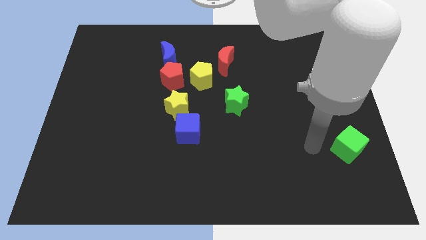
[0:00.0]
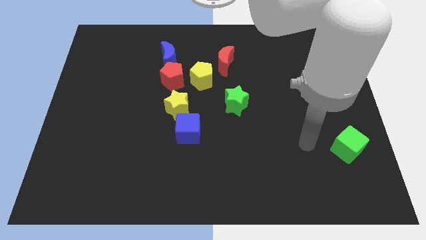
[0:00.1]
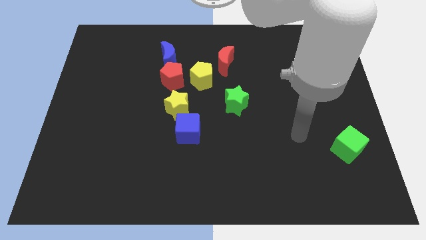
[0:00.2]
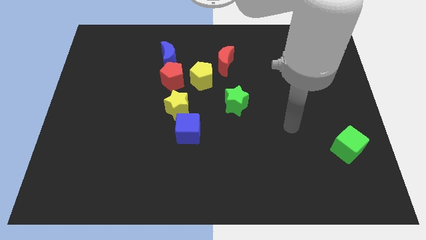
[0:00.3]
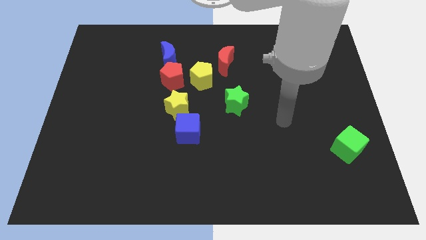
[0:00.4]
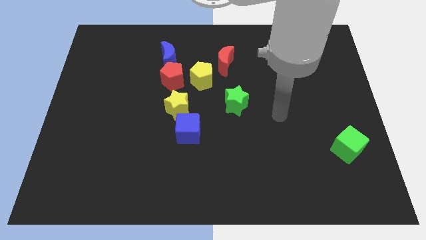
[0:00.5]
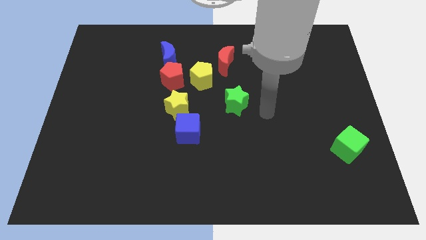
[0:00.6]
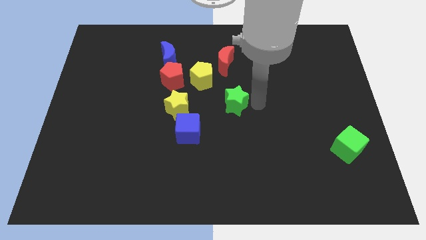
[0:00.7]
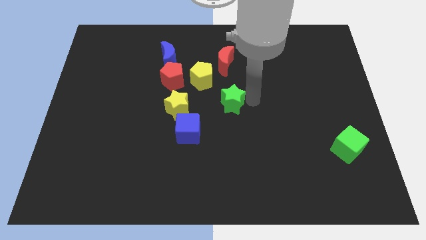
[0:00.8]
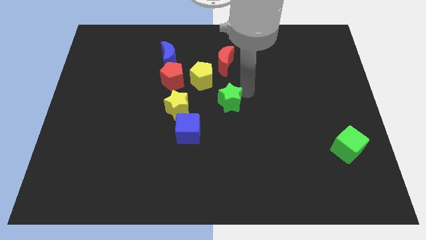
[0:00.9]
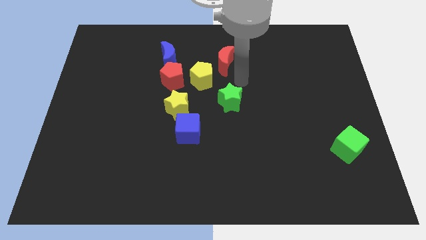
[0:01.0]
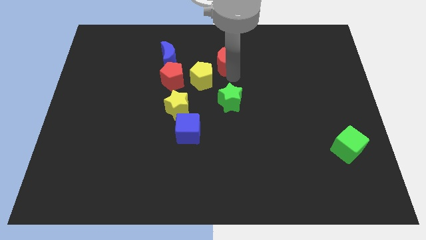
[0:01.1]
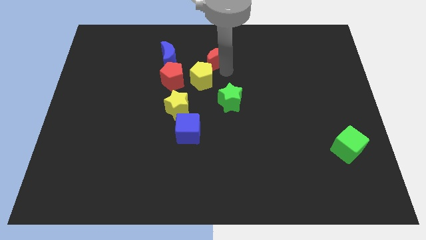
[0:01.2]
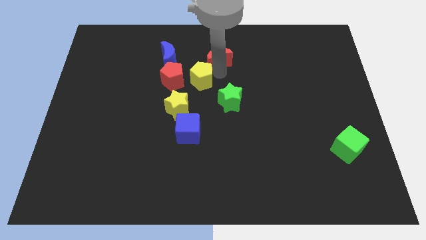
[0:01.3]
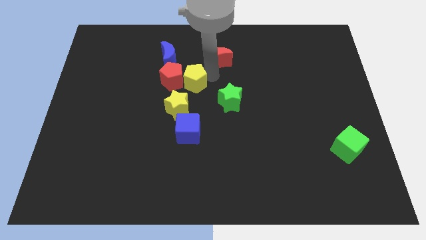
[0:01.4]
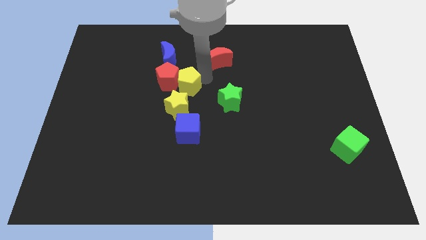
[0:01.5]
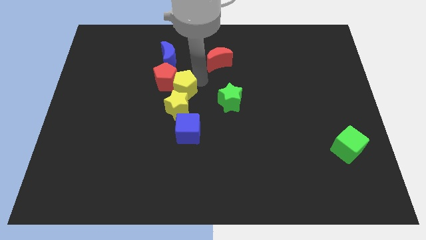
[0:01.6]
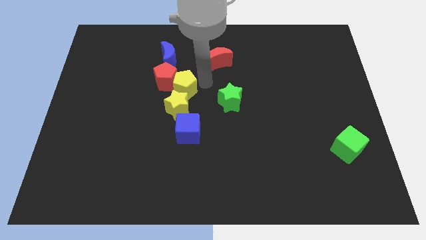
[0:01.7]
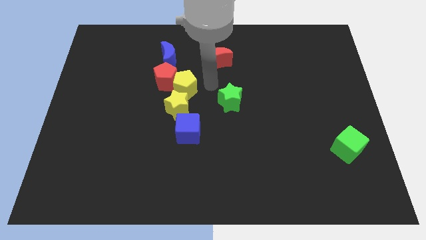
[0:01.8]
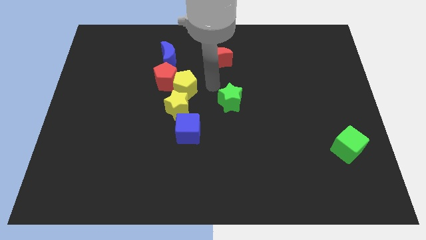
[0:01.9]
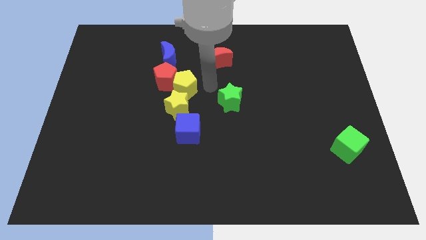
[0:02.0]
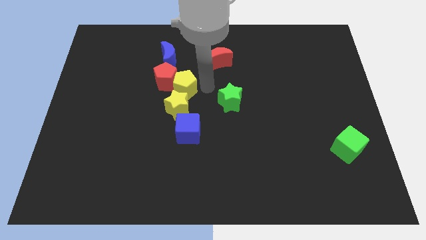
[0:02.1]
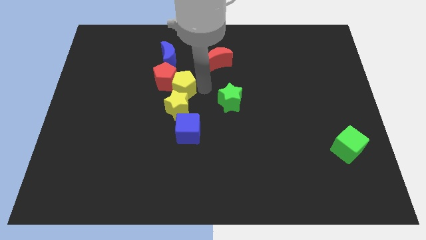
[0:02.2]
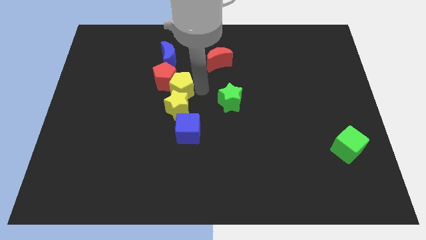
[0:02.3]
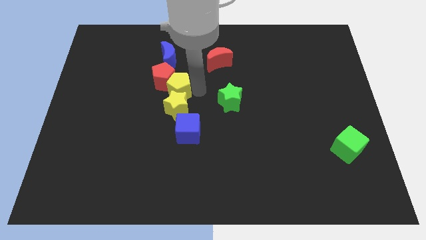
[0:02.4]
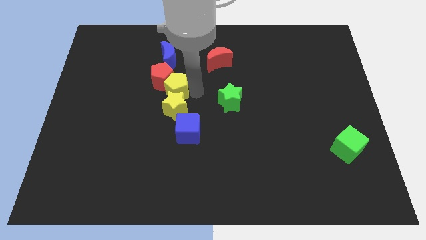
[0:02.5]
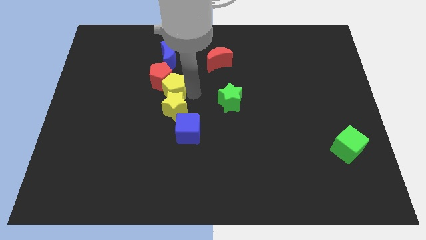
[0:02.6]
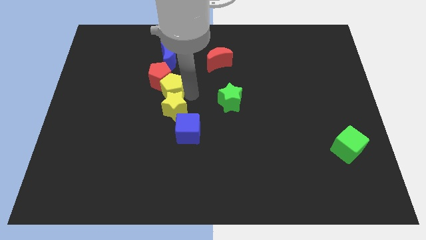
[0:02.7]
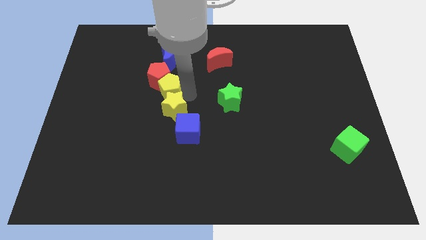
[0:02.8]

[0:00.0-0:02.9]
slightly move the yellow pentagon to the left

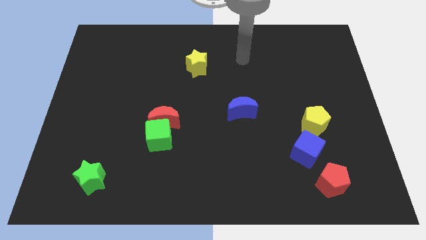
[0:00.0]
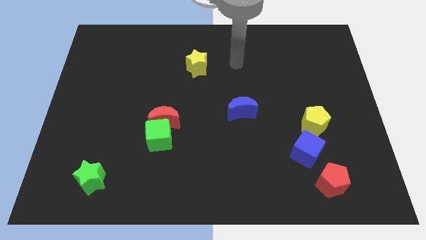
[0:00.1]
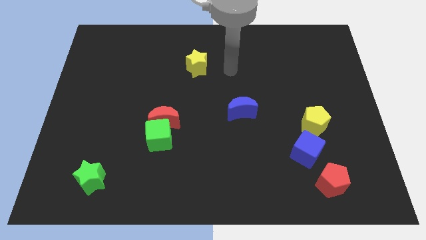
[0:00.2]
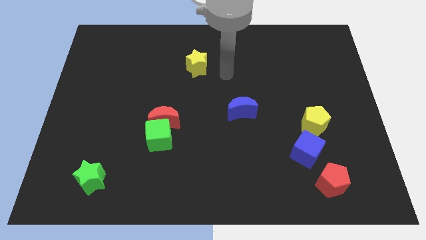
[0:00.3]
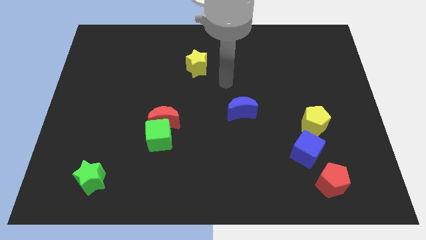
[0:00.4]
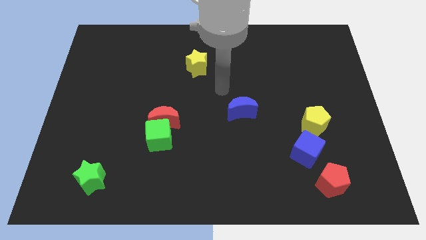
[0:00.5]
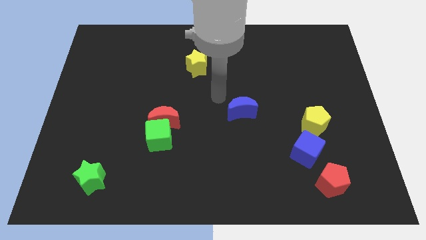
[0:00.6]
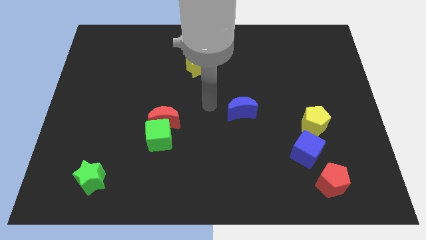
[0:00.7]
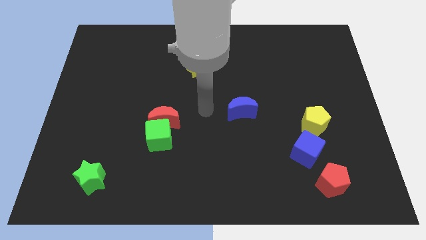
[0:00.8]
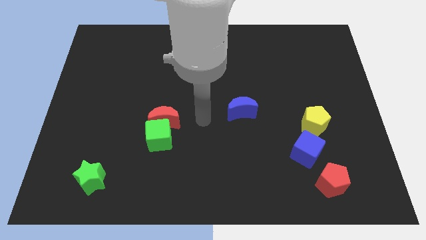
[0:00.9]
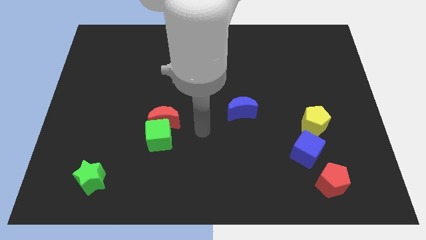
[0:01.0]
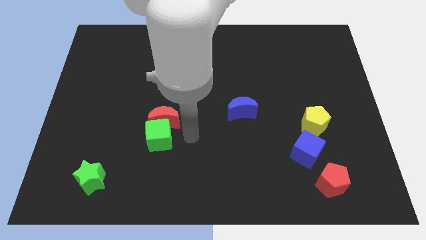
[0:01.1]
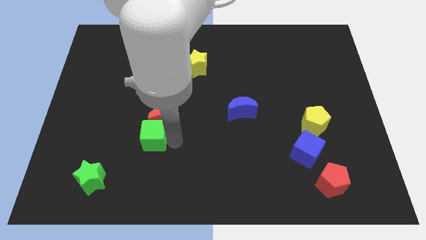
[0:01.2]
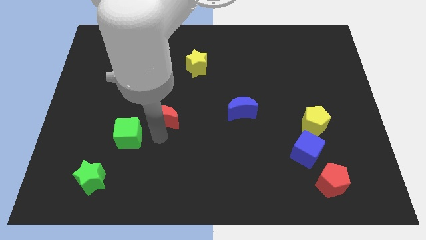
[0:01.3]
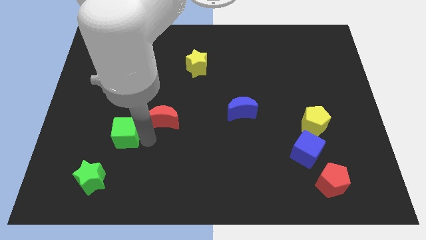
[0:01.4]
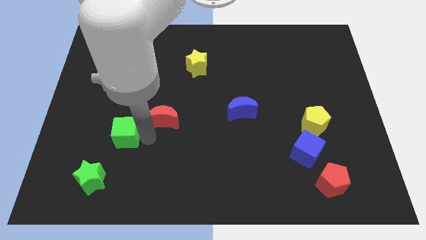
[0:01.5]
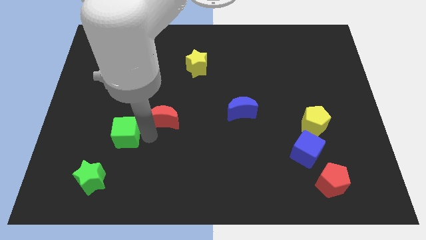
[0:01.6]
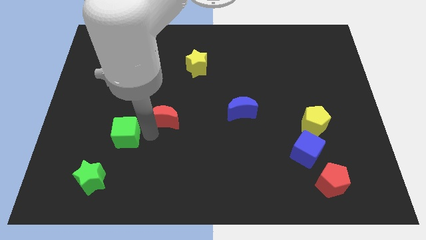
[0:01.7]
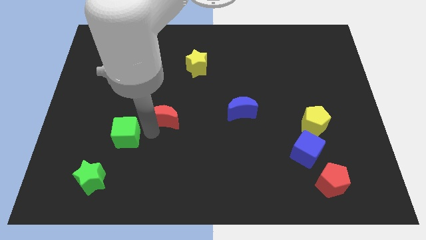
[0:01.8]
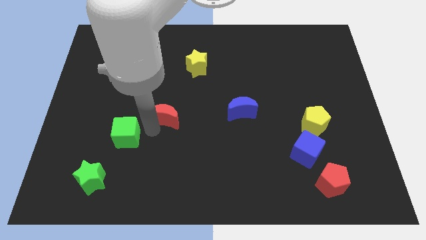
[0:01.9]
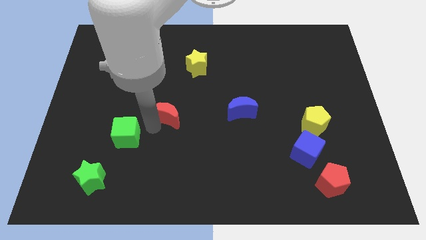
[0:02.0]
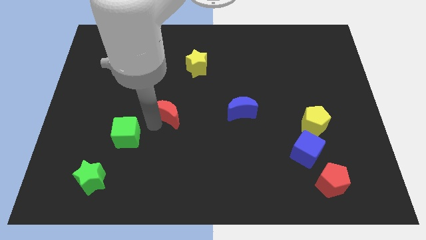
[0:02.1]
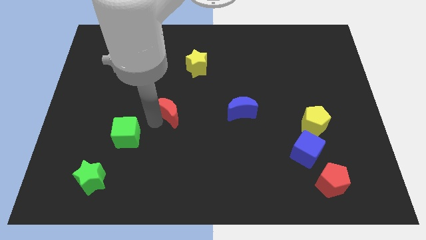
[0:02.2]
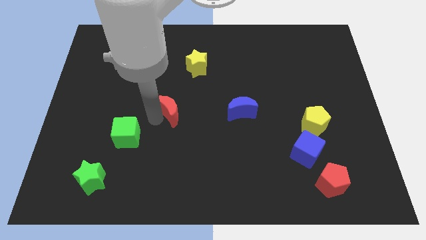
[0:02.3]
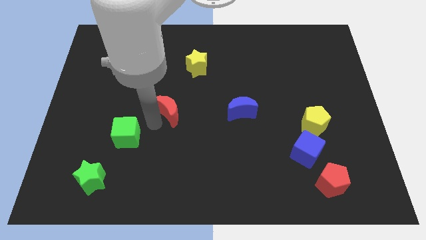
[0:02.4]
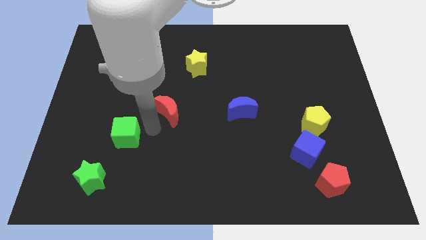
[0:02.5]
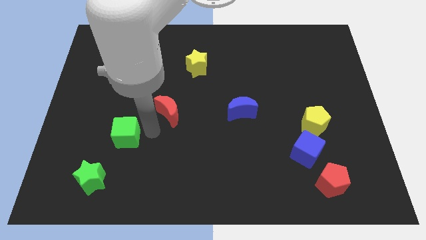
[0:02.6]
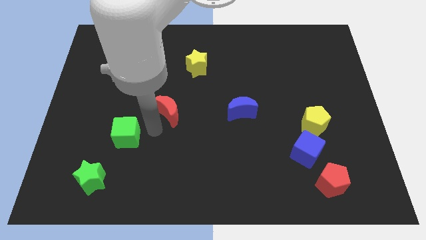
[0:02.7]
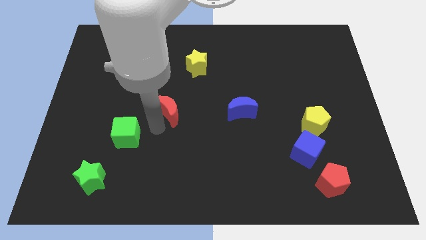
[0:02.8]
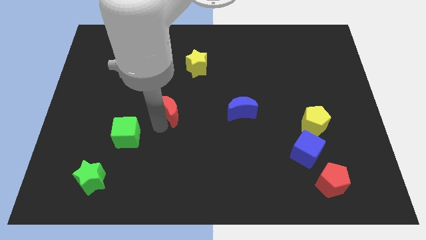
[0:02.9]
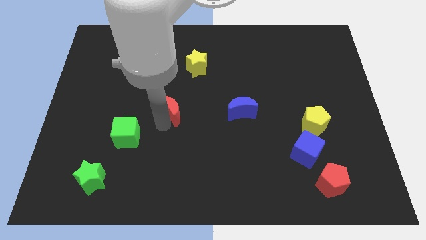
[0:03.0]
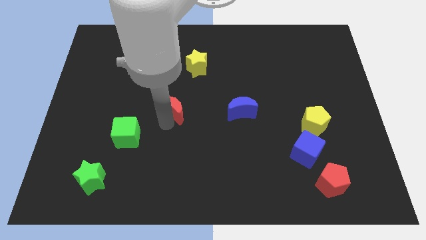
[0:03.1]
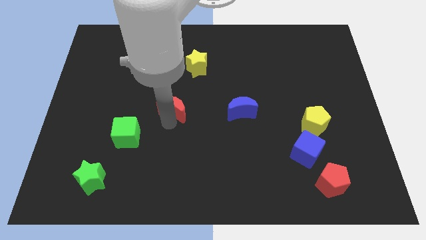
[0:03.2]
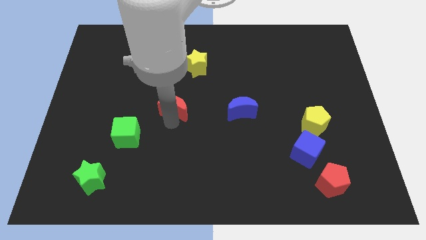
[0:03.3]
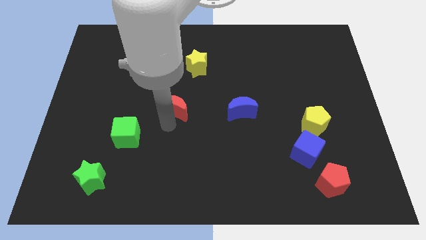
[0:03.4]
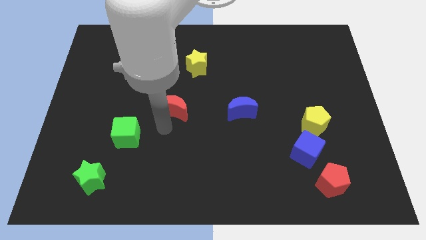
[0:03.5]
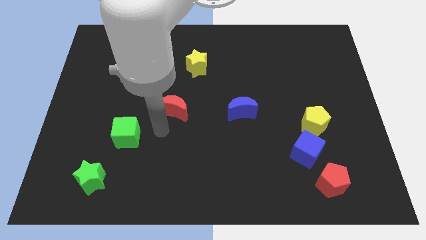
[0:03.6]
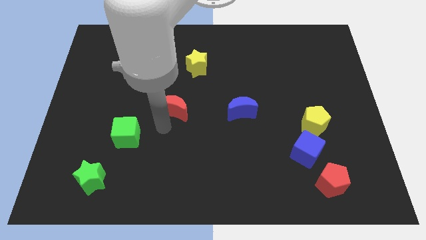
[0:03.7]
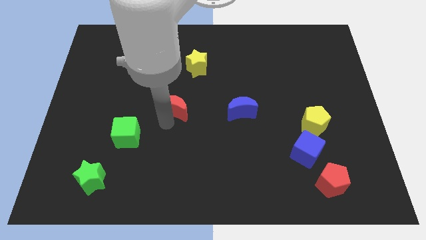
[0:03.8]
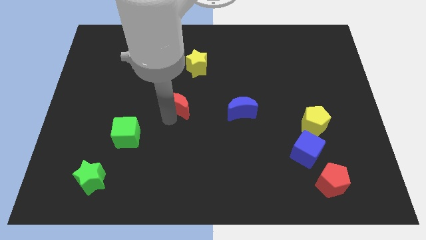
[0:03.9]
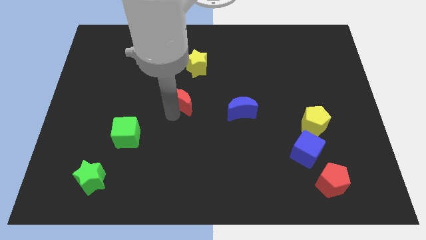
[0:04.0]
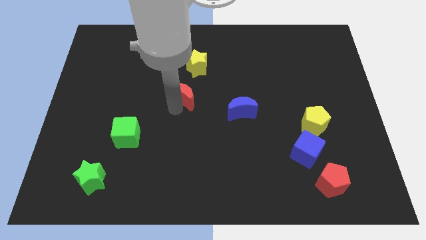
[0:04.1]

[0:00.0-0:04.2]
move the red moon a bit upwards and right

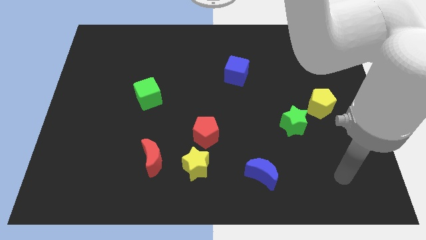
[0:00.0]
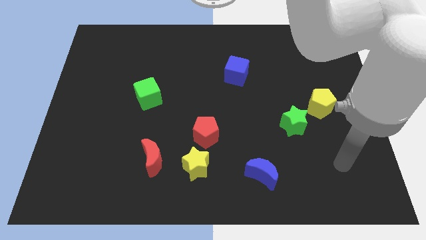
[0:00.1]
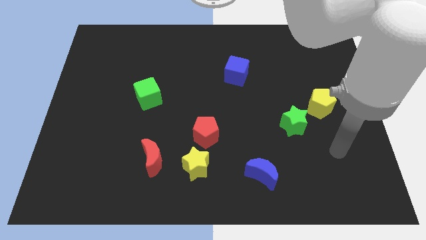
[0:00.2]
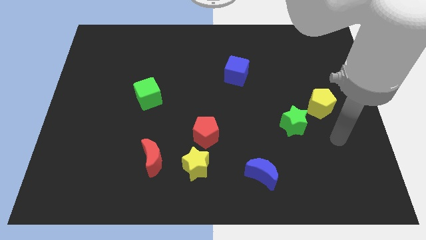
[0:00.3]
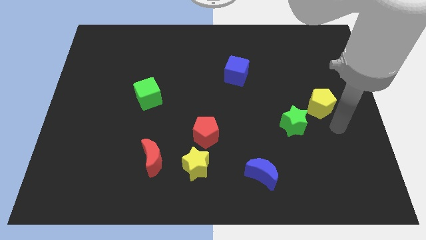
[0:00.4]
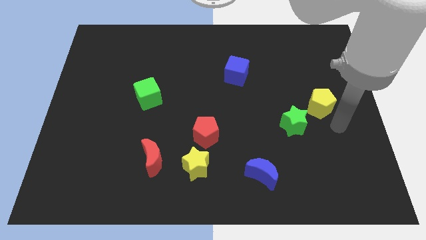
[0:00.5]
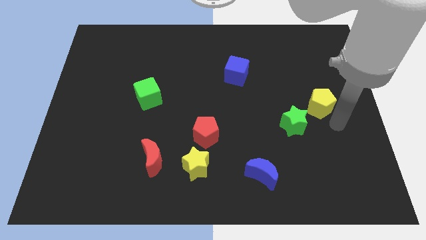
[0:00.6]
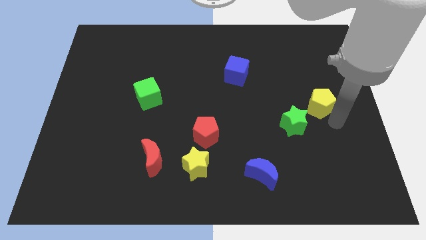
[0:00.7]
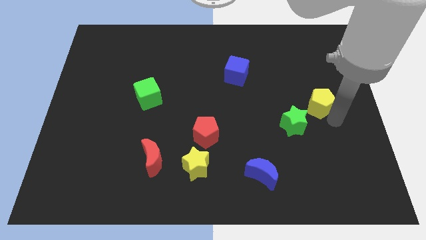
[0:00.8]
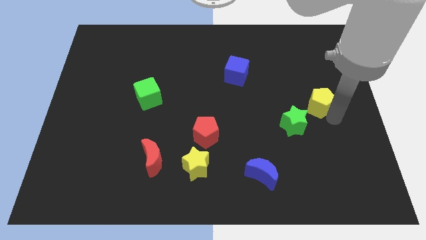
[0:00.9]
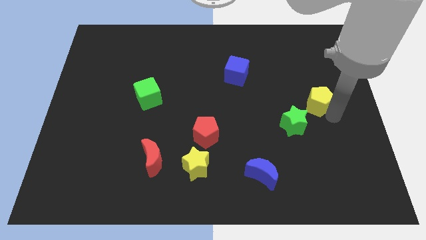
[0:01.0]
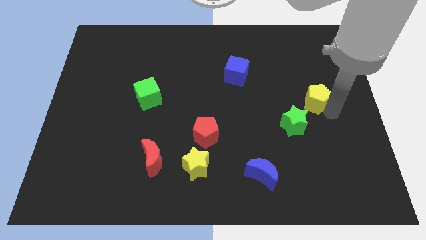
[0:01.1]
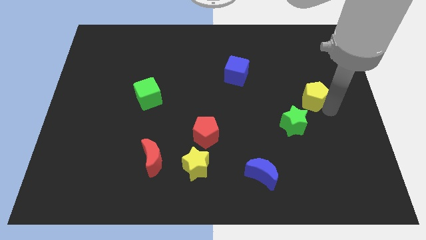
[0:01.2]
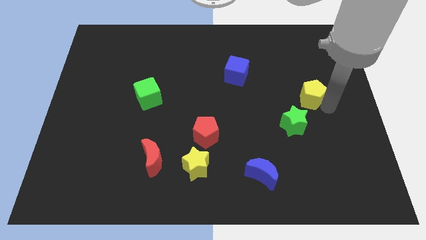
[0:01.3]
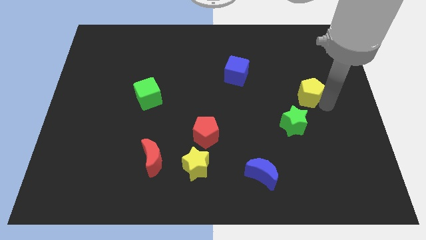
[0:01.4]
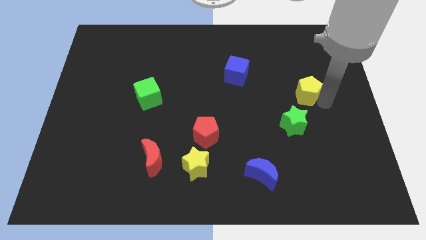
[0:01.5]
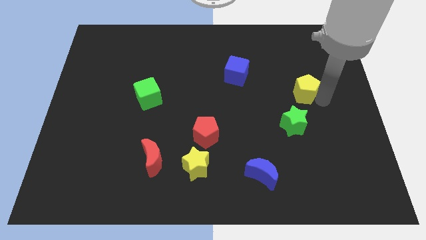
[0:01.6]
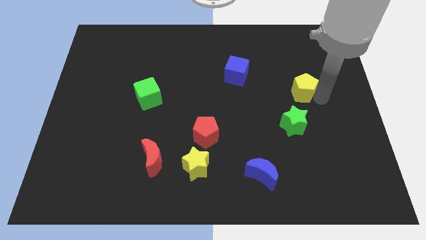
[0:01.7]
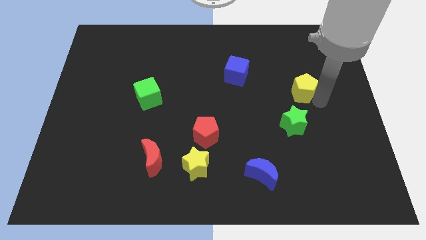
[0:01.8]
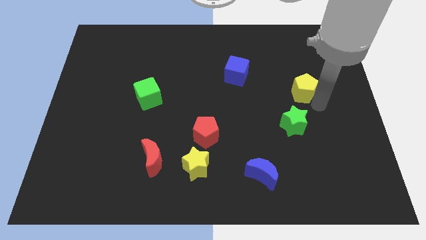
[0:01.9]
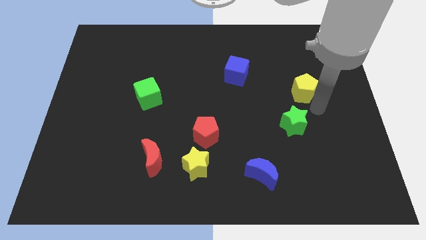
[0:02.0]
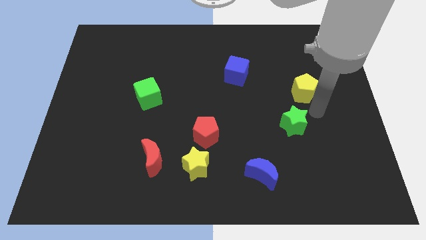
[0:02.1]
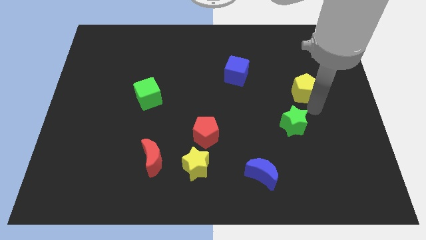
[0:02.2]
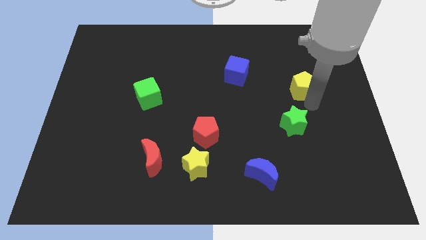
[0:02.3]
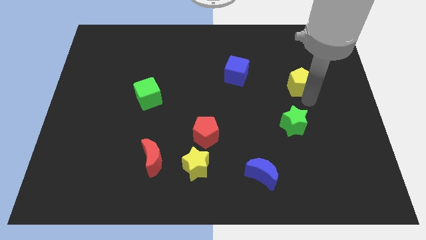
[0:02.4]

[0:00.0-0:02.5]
move the yellow pentagon diagonally upwards and to the left a little
